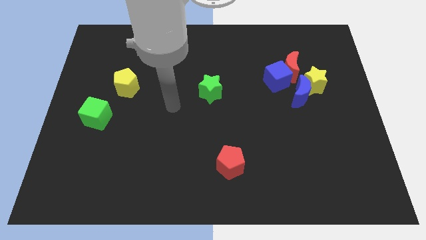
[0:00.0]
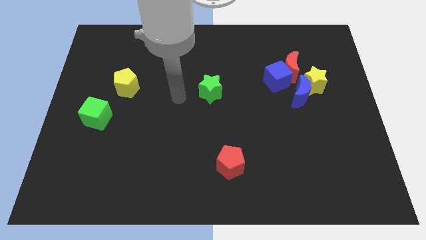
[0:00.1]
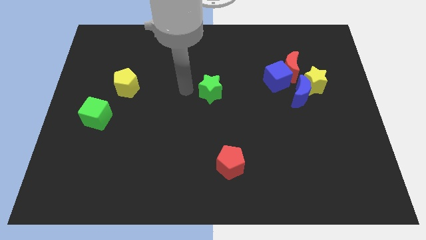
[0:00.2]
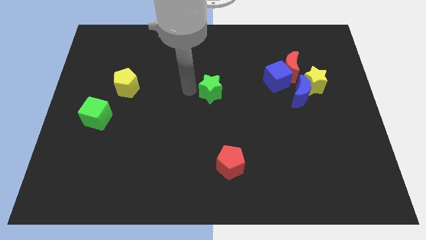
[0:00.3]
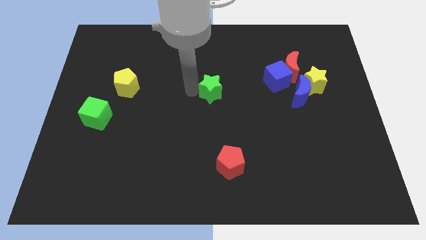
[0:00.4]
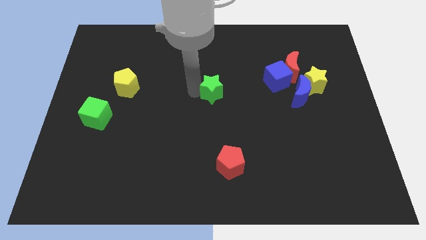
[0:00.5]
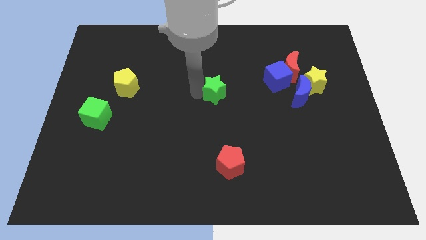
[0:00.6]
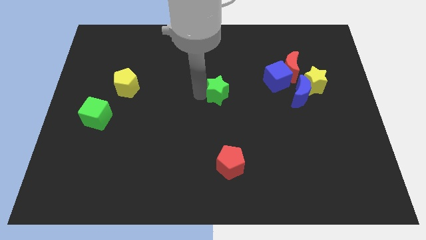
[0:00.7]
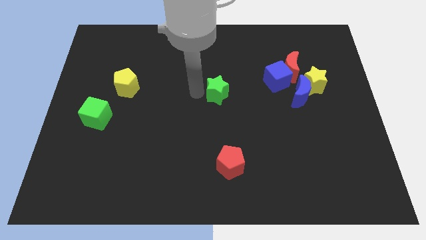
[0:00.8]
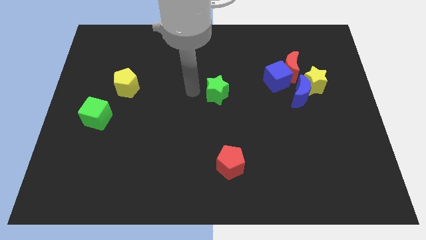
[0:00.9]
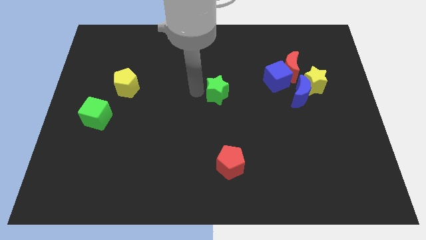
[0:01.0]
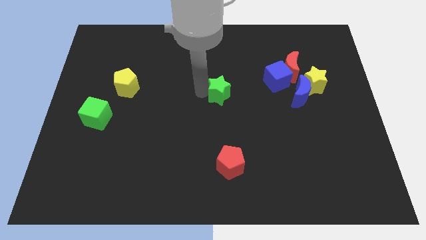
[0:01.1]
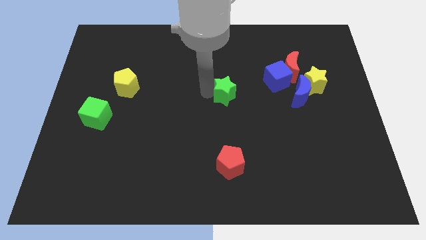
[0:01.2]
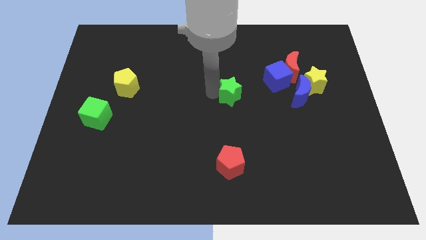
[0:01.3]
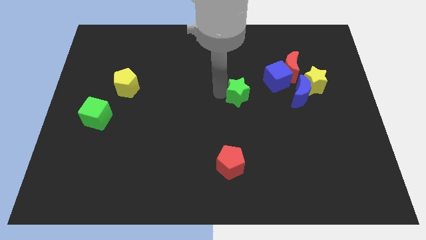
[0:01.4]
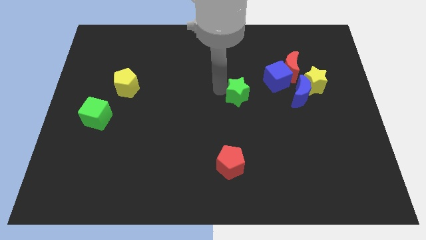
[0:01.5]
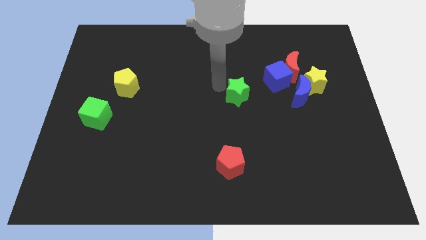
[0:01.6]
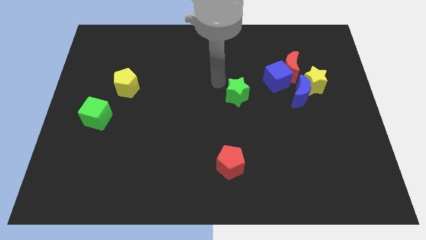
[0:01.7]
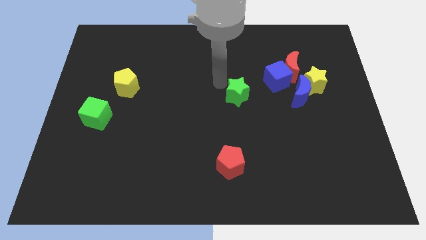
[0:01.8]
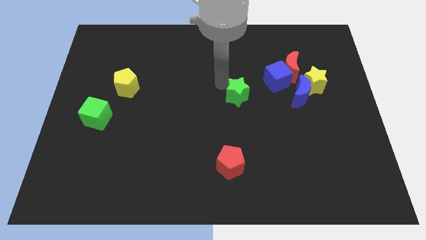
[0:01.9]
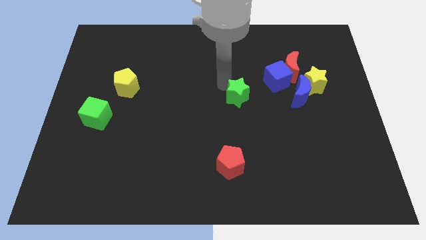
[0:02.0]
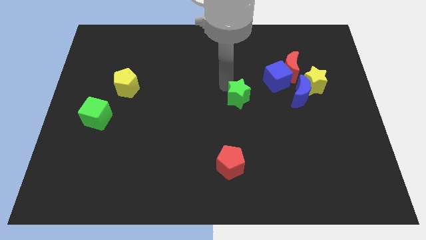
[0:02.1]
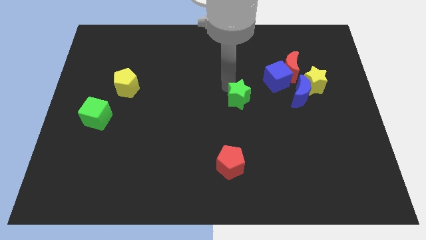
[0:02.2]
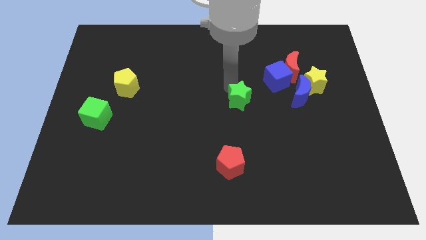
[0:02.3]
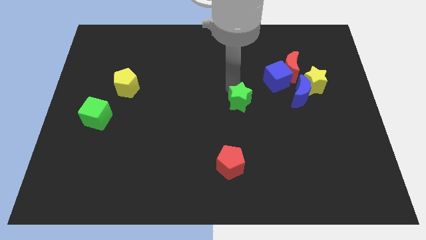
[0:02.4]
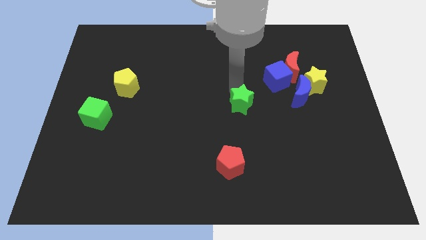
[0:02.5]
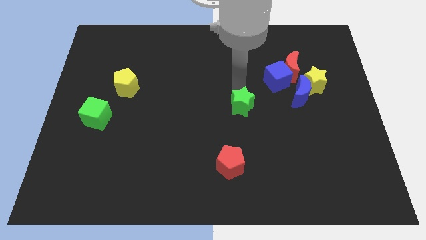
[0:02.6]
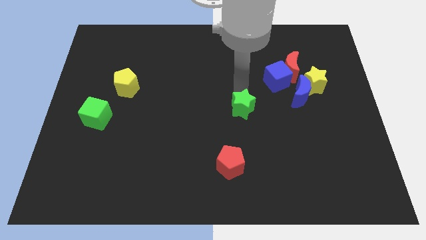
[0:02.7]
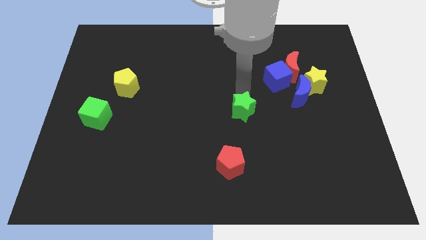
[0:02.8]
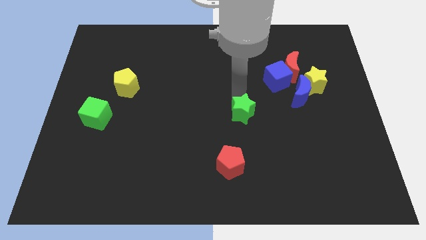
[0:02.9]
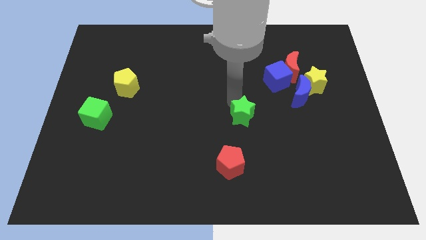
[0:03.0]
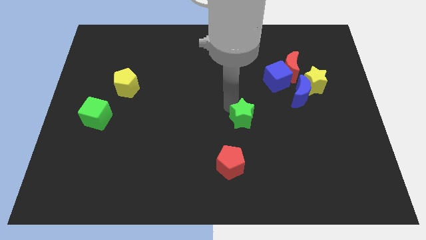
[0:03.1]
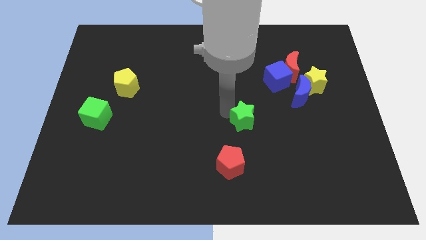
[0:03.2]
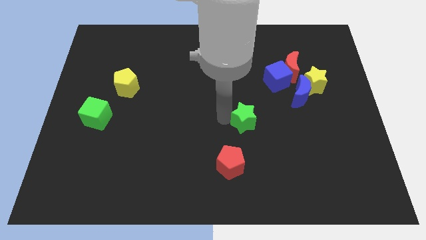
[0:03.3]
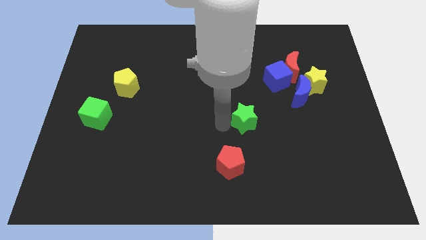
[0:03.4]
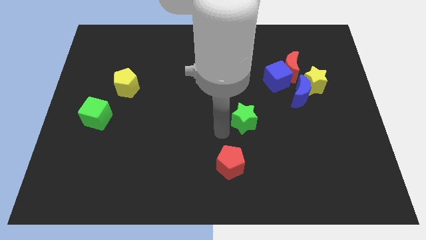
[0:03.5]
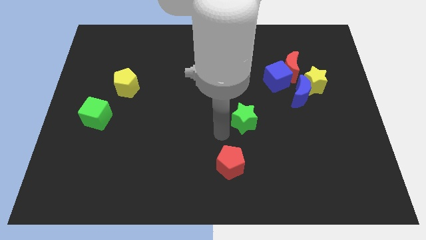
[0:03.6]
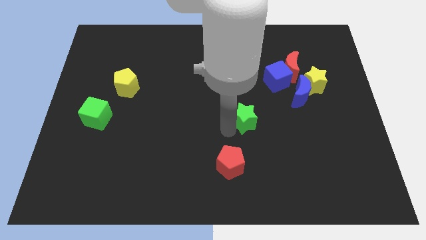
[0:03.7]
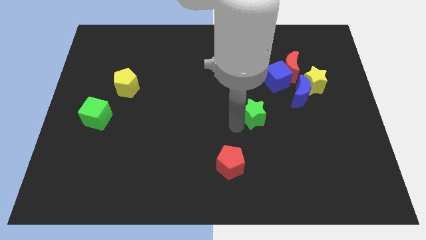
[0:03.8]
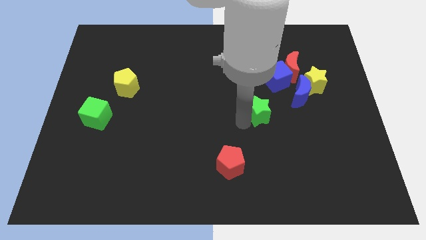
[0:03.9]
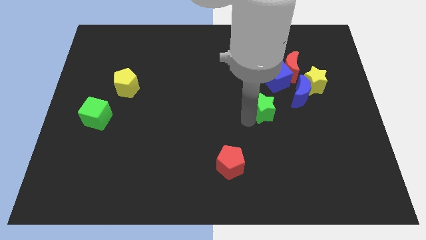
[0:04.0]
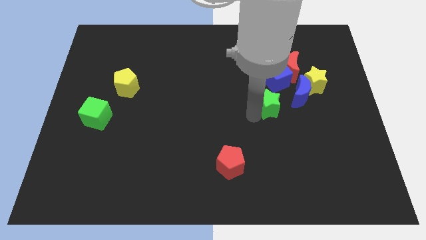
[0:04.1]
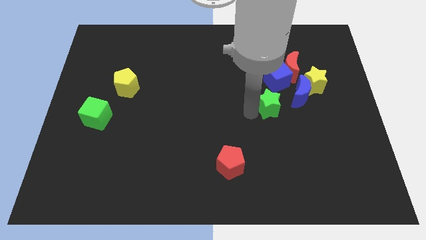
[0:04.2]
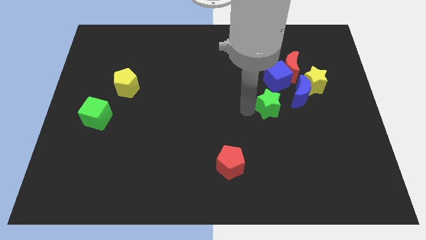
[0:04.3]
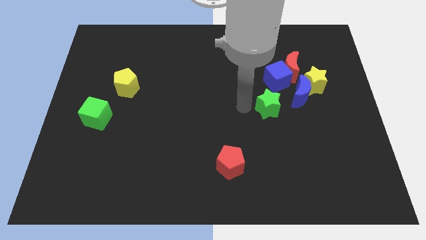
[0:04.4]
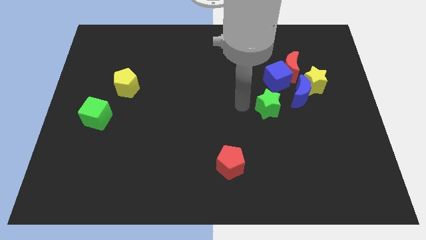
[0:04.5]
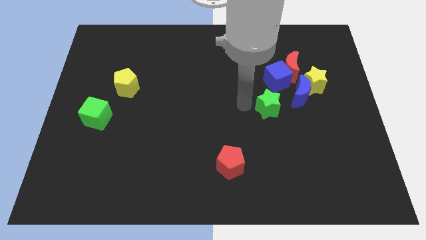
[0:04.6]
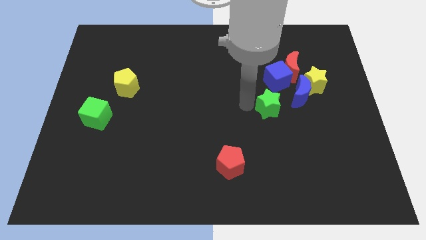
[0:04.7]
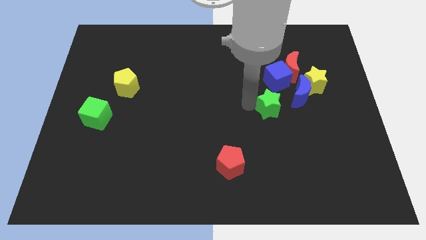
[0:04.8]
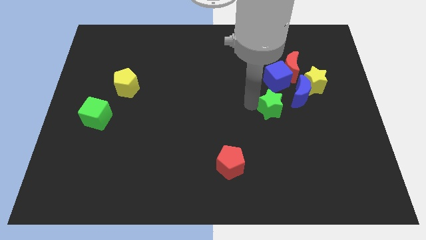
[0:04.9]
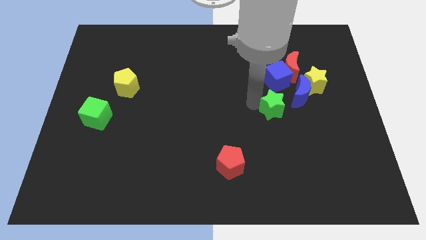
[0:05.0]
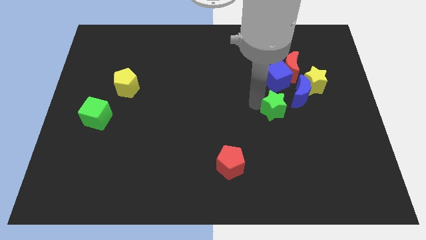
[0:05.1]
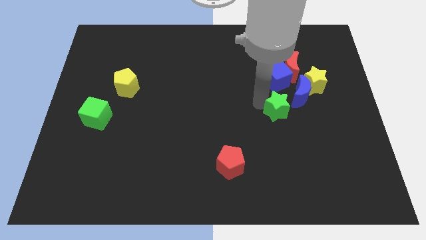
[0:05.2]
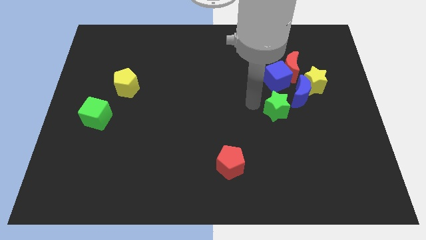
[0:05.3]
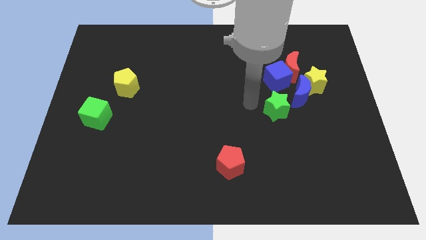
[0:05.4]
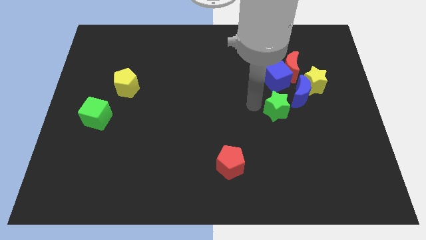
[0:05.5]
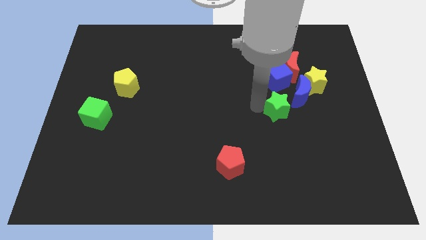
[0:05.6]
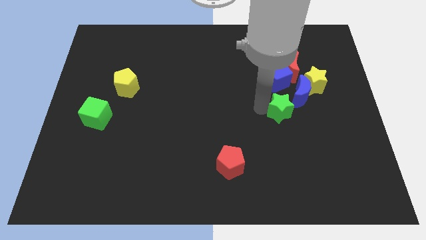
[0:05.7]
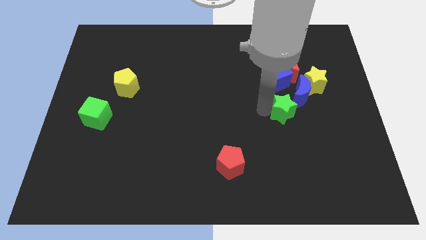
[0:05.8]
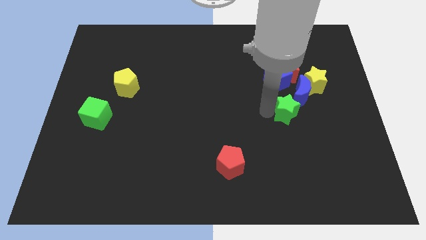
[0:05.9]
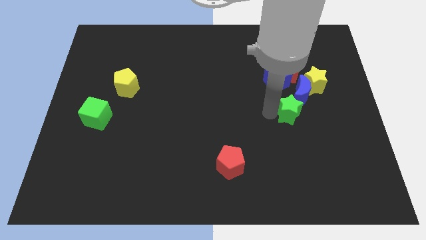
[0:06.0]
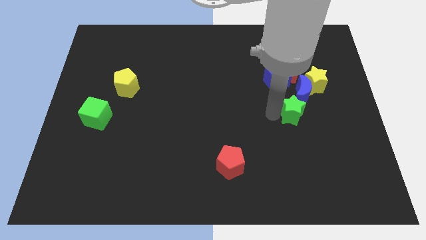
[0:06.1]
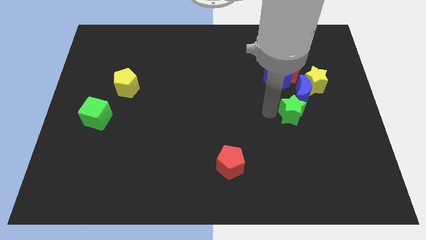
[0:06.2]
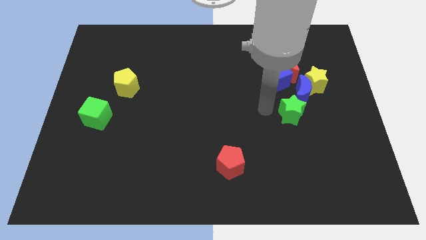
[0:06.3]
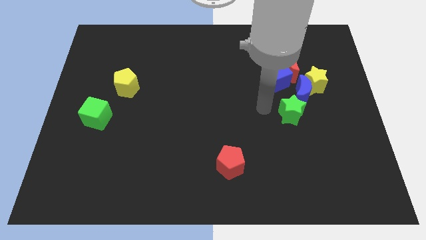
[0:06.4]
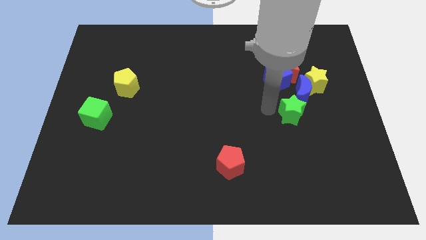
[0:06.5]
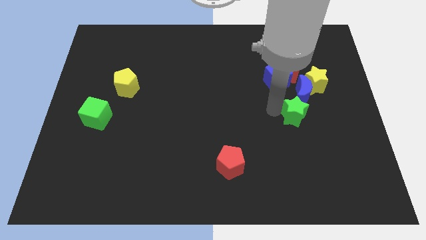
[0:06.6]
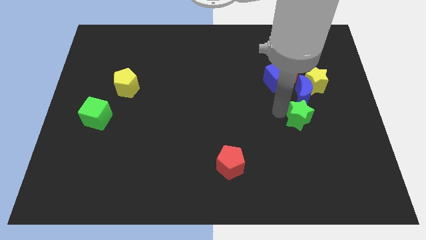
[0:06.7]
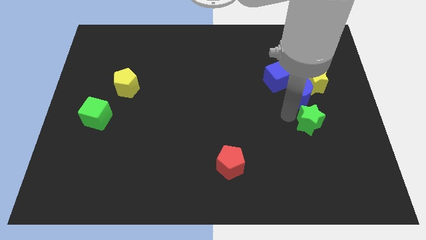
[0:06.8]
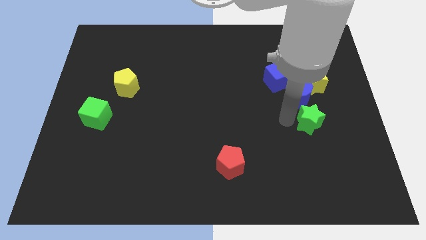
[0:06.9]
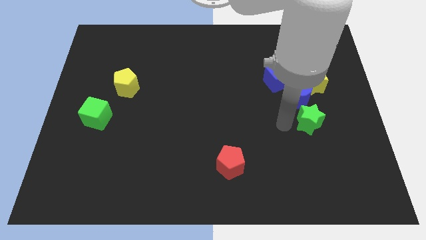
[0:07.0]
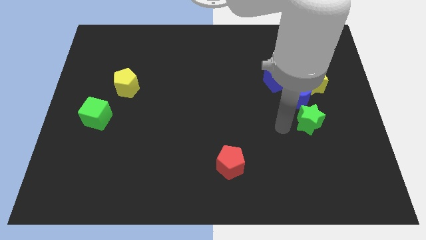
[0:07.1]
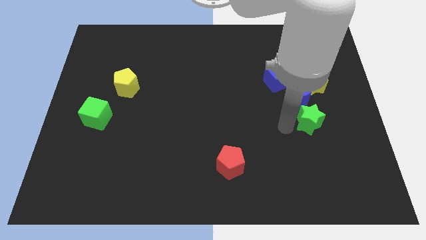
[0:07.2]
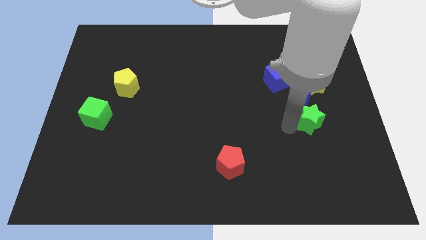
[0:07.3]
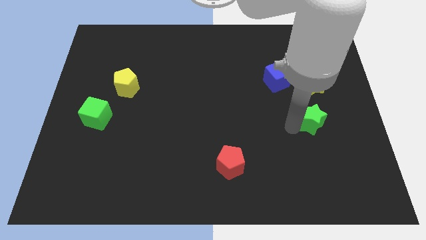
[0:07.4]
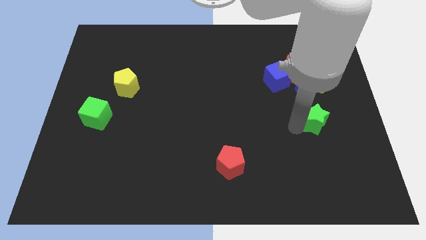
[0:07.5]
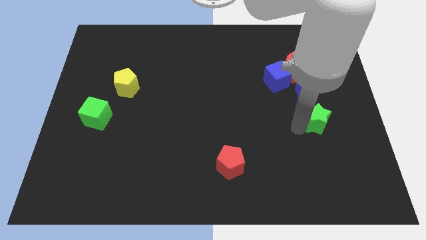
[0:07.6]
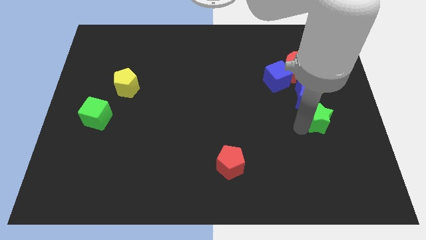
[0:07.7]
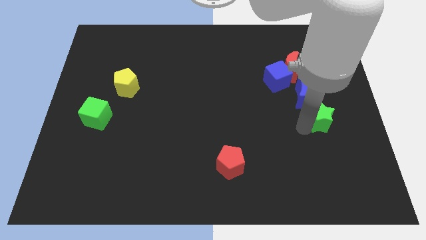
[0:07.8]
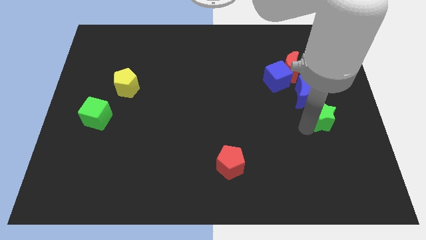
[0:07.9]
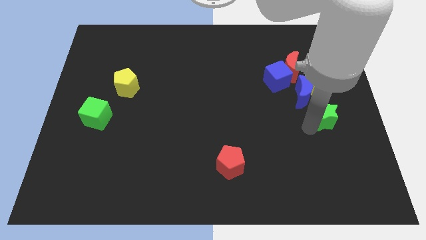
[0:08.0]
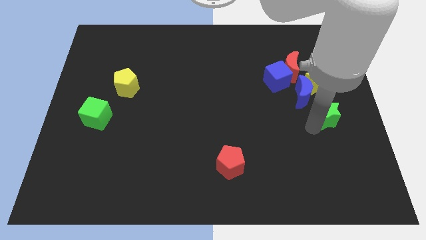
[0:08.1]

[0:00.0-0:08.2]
move the green star to the center right
